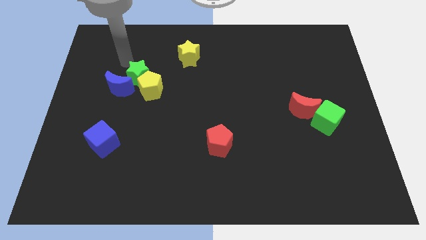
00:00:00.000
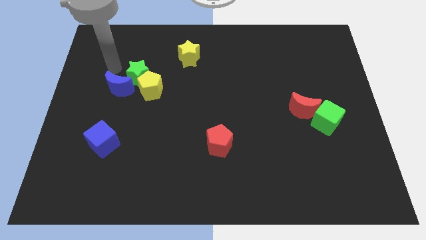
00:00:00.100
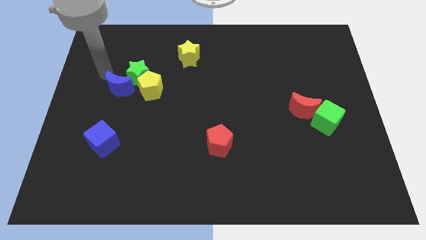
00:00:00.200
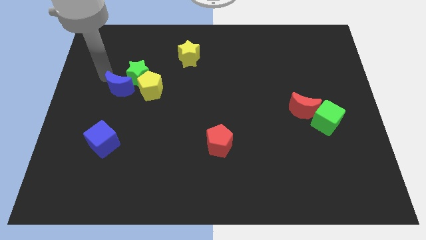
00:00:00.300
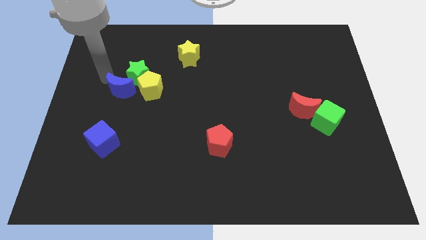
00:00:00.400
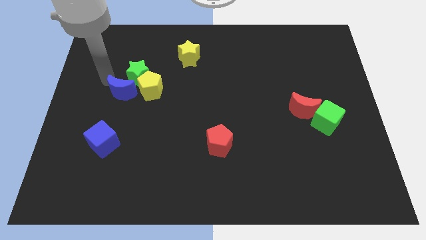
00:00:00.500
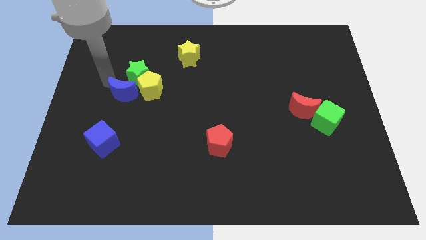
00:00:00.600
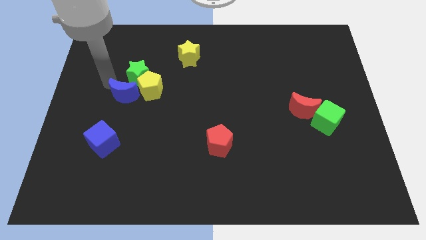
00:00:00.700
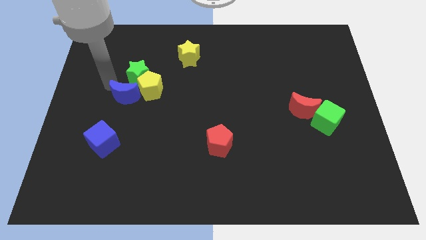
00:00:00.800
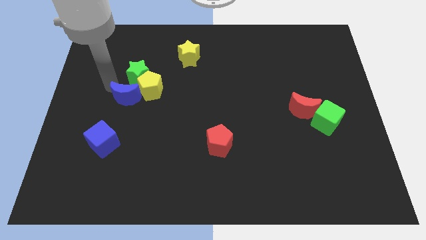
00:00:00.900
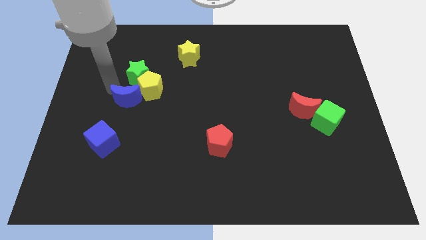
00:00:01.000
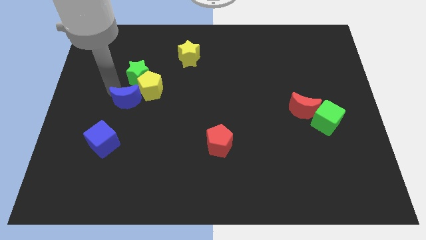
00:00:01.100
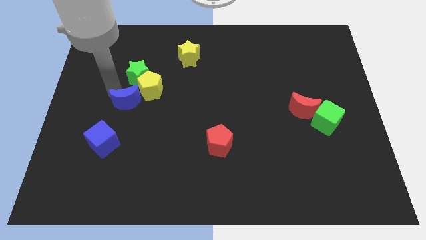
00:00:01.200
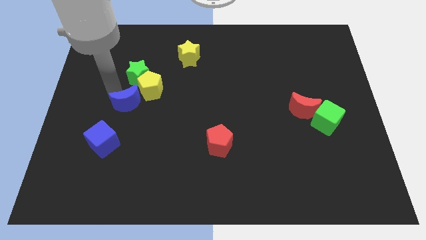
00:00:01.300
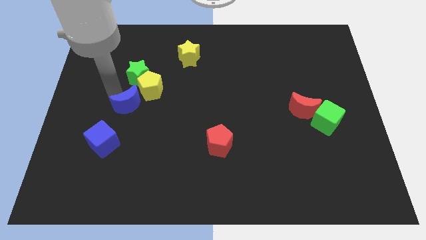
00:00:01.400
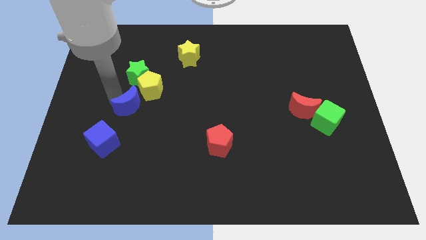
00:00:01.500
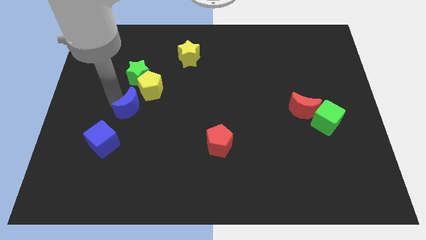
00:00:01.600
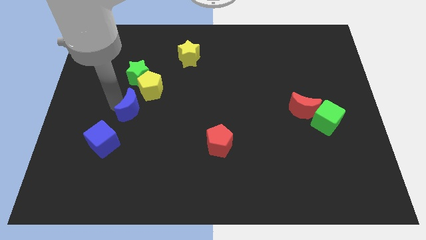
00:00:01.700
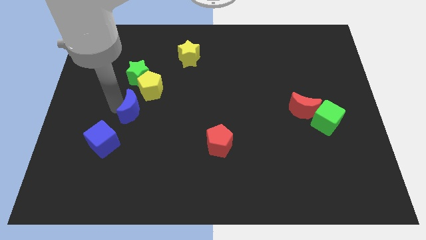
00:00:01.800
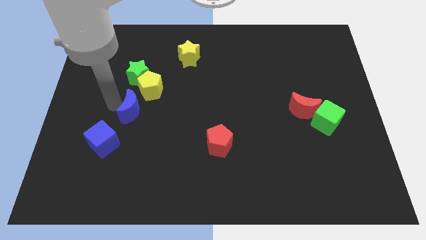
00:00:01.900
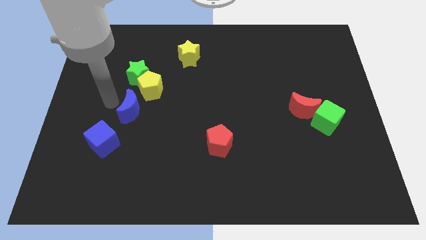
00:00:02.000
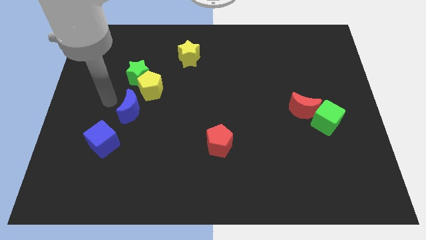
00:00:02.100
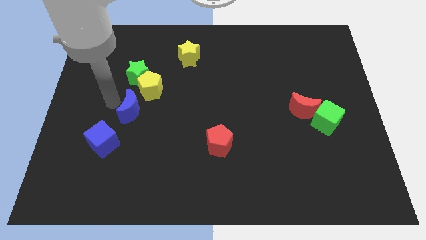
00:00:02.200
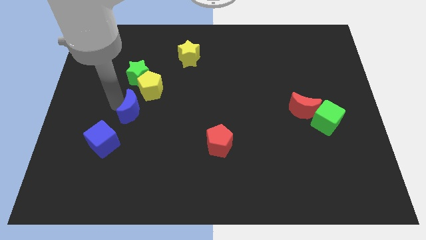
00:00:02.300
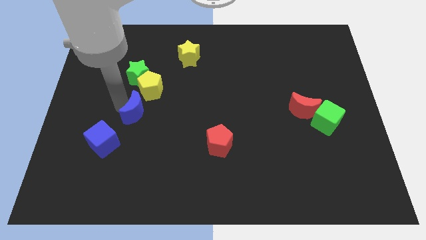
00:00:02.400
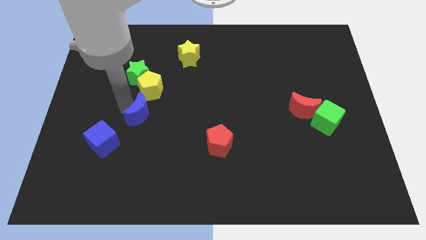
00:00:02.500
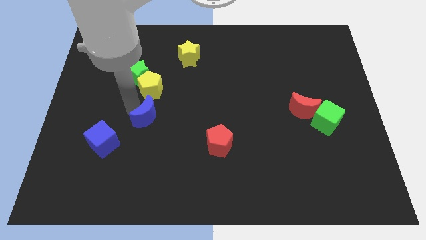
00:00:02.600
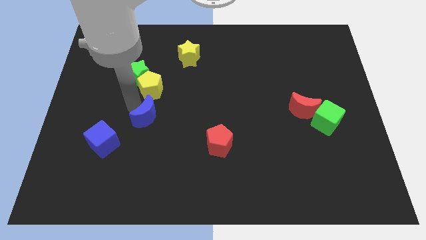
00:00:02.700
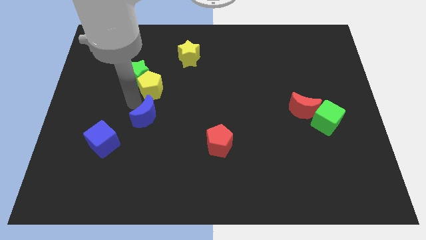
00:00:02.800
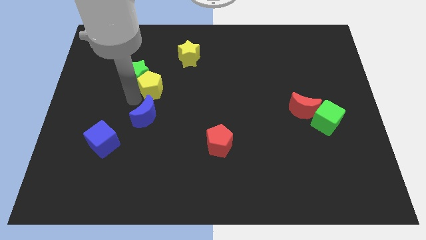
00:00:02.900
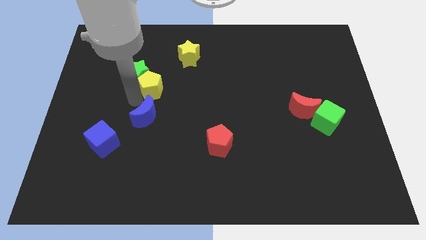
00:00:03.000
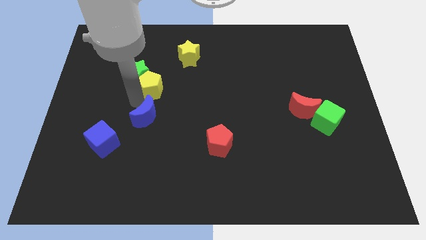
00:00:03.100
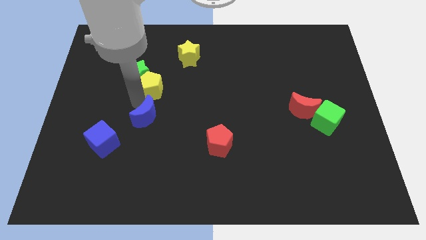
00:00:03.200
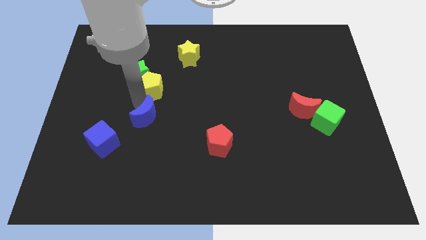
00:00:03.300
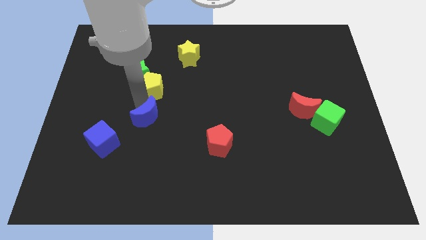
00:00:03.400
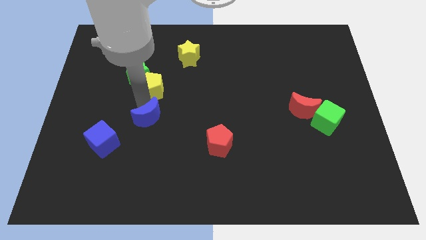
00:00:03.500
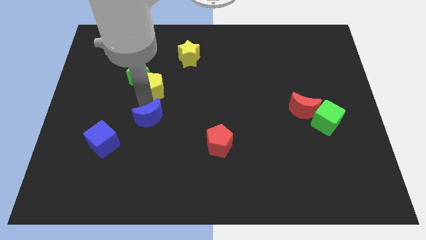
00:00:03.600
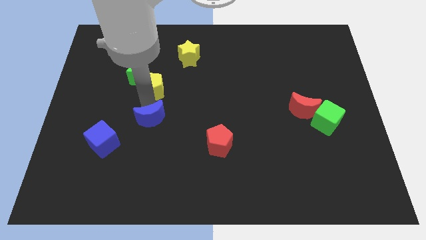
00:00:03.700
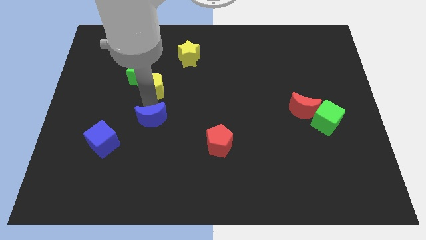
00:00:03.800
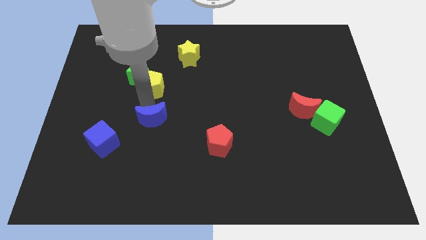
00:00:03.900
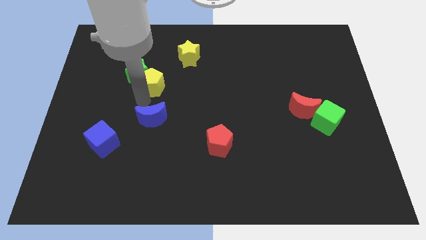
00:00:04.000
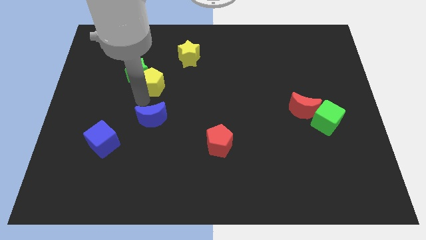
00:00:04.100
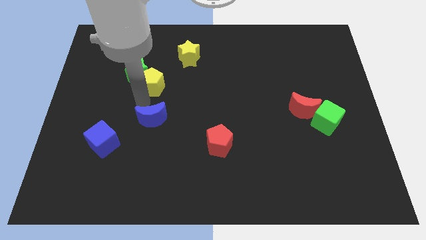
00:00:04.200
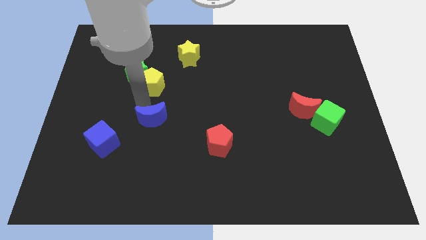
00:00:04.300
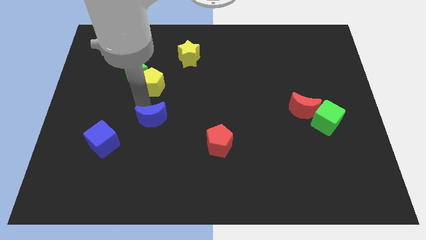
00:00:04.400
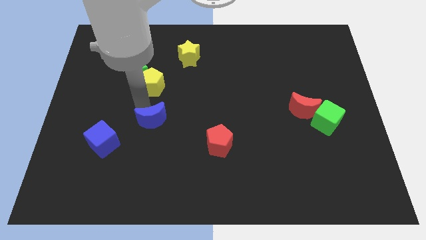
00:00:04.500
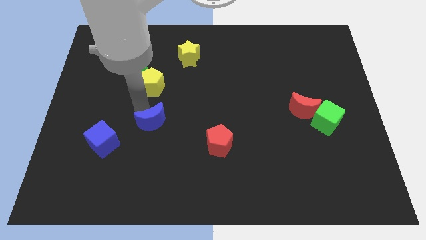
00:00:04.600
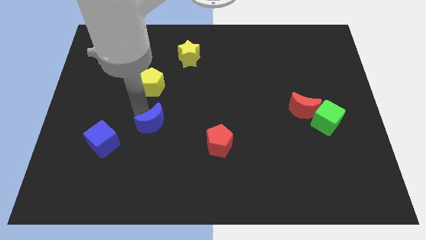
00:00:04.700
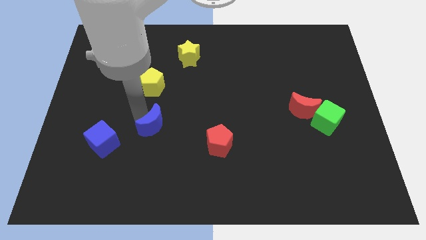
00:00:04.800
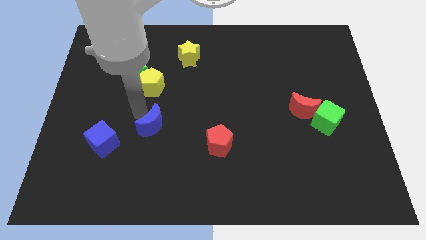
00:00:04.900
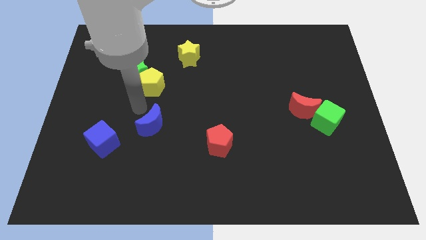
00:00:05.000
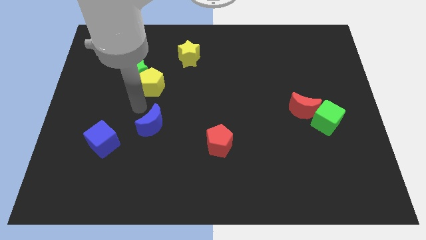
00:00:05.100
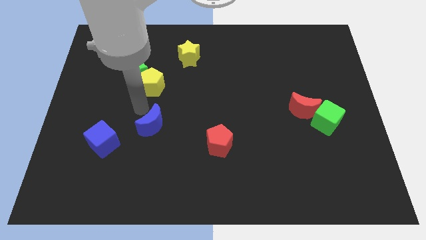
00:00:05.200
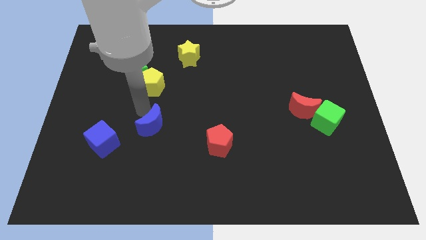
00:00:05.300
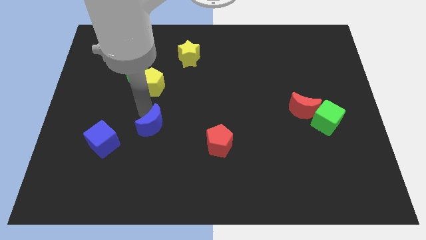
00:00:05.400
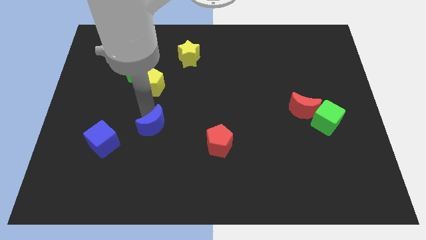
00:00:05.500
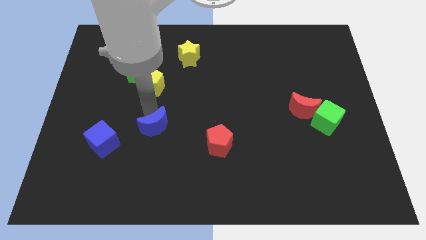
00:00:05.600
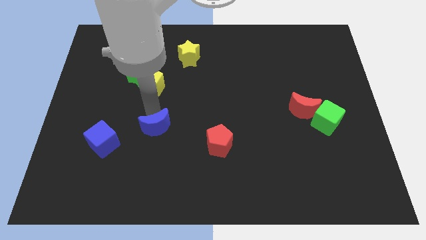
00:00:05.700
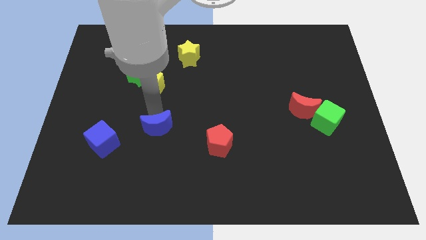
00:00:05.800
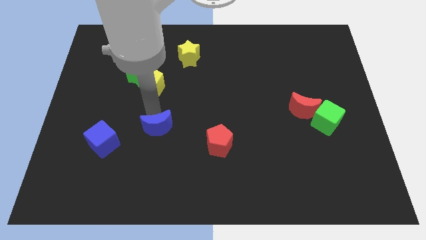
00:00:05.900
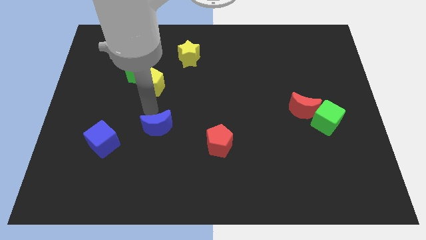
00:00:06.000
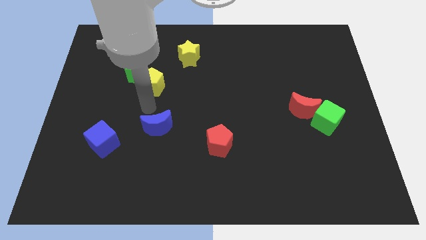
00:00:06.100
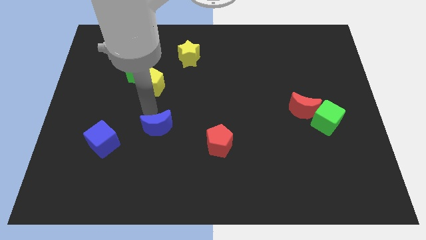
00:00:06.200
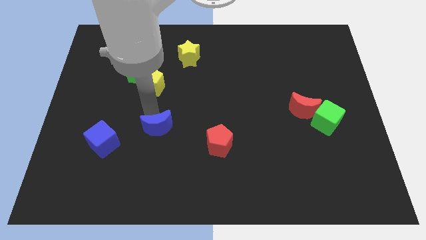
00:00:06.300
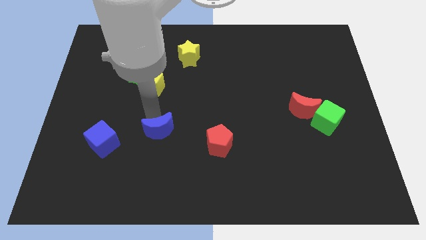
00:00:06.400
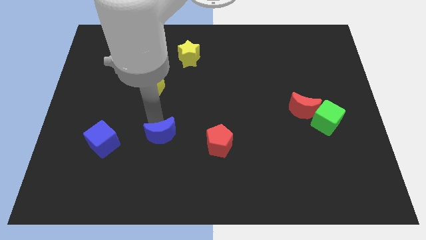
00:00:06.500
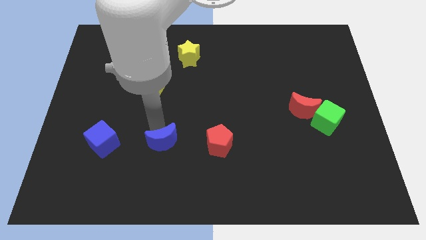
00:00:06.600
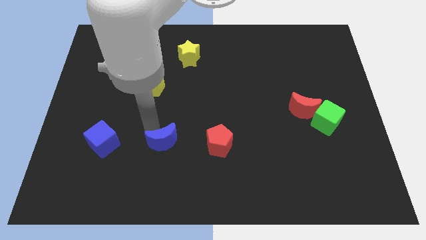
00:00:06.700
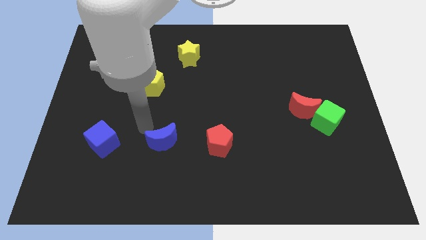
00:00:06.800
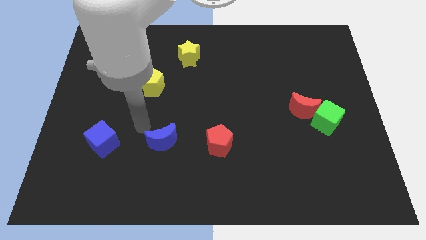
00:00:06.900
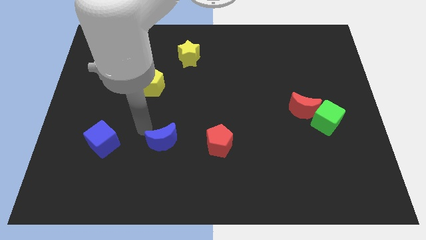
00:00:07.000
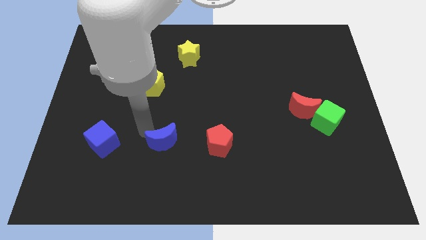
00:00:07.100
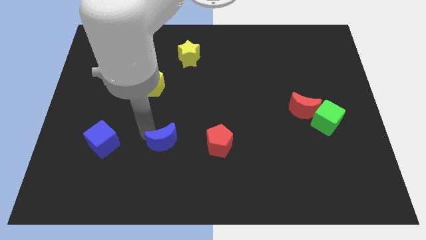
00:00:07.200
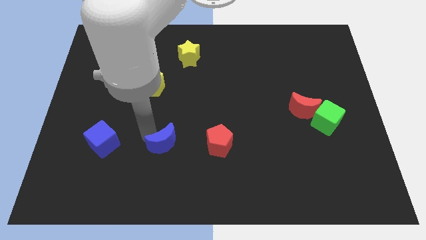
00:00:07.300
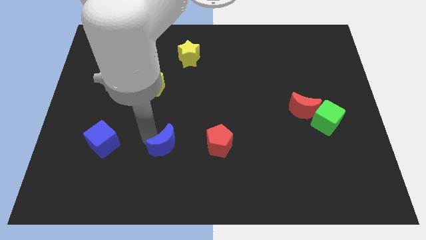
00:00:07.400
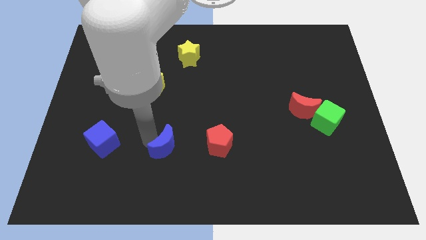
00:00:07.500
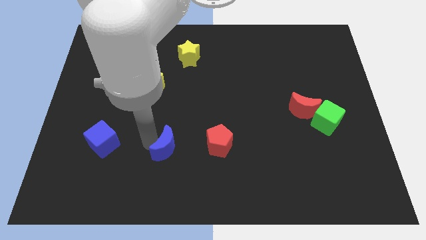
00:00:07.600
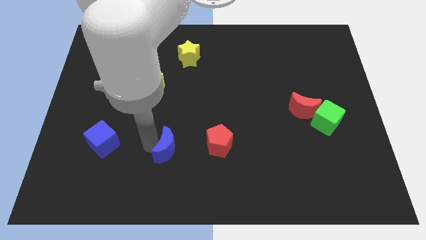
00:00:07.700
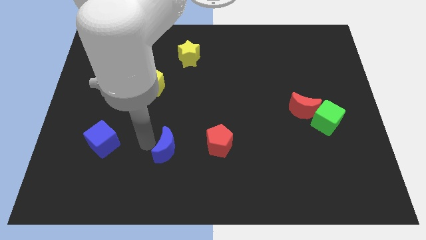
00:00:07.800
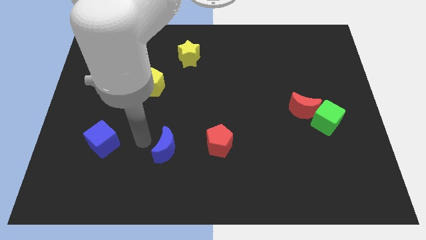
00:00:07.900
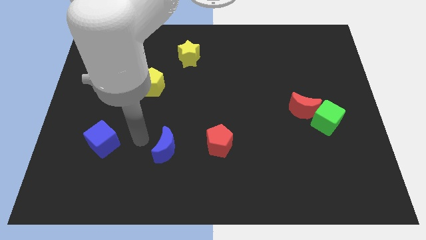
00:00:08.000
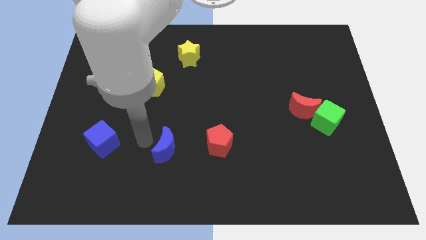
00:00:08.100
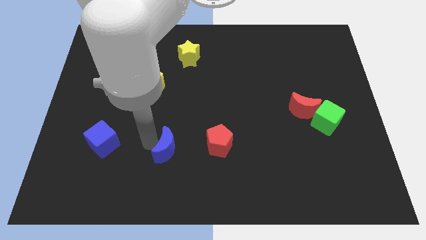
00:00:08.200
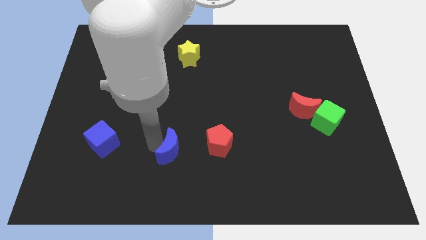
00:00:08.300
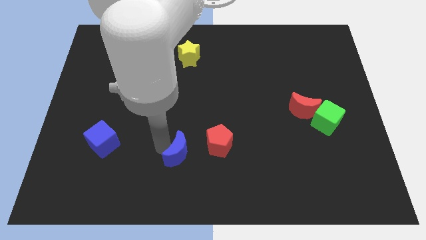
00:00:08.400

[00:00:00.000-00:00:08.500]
put the blue moon diagonally down and to the left of the red pentagon

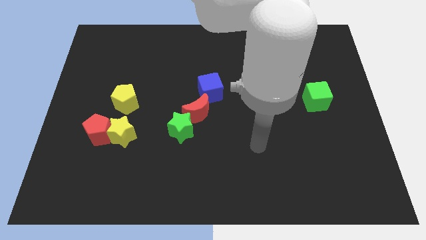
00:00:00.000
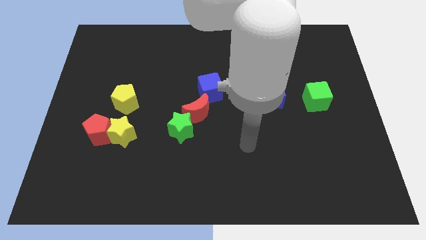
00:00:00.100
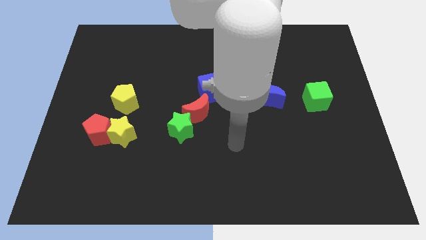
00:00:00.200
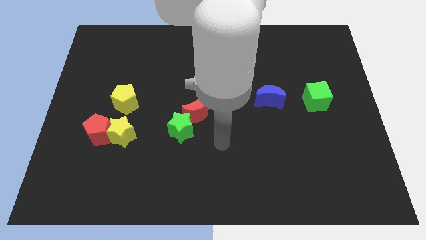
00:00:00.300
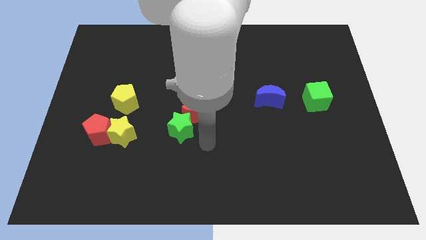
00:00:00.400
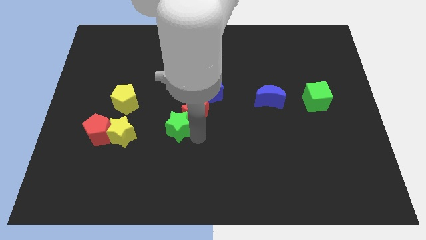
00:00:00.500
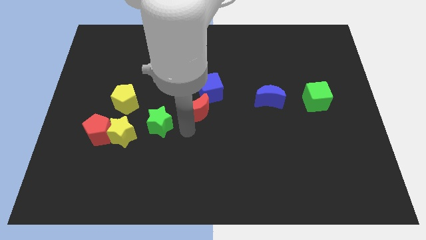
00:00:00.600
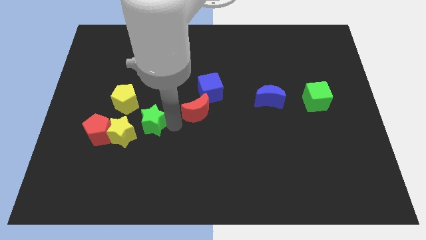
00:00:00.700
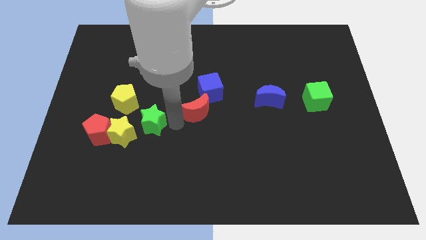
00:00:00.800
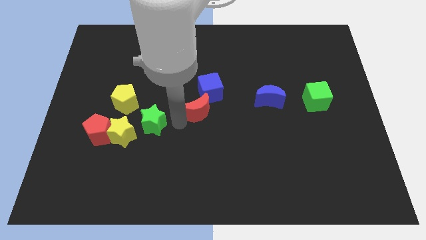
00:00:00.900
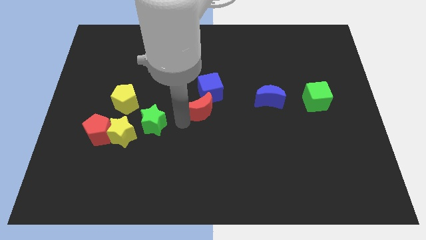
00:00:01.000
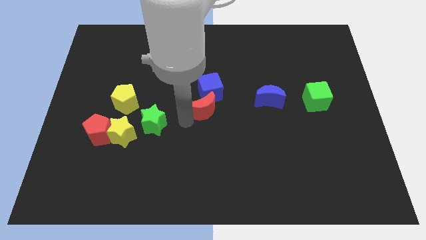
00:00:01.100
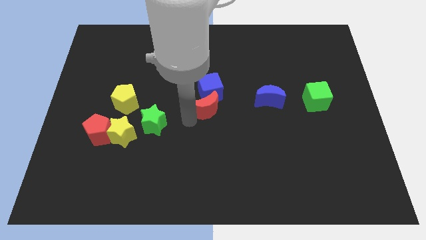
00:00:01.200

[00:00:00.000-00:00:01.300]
move the red moon to the left of the blue moon
